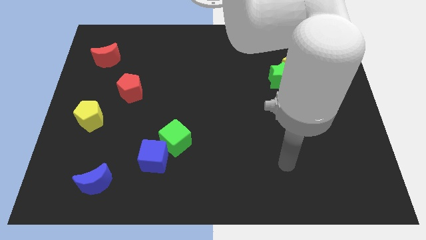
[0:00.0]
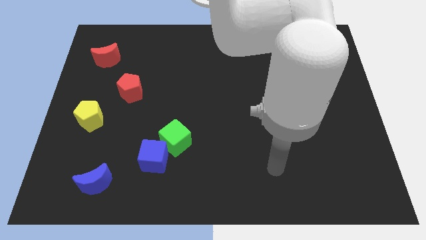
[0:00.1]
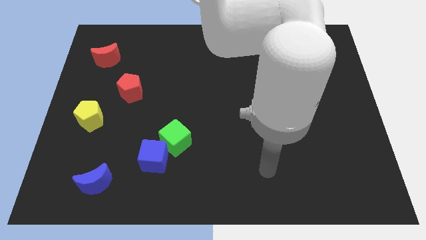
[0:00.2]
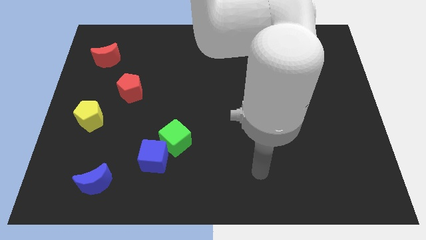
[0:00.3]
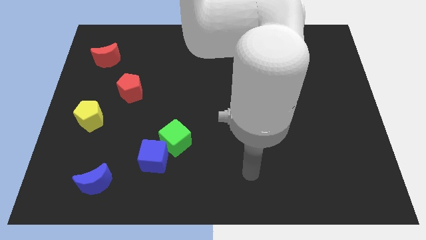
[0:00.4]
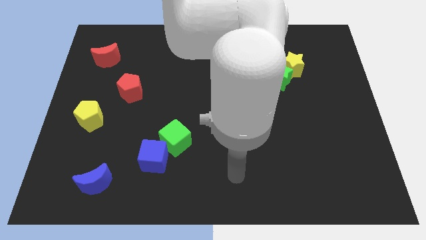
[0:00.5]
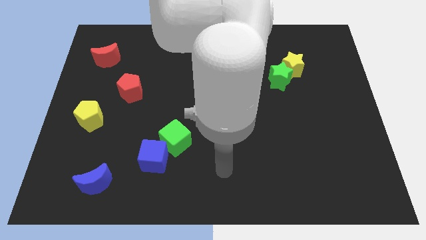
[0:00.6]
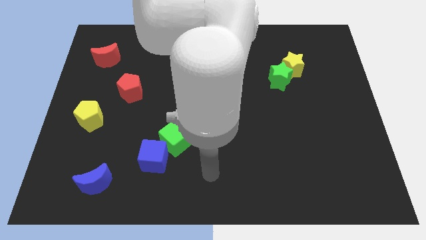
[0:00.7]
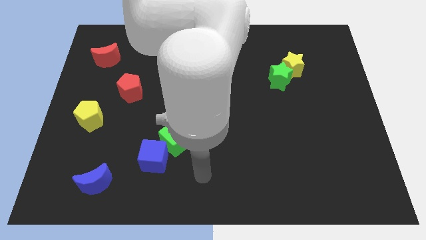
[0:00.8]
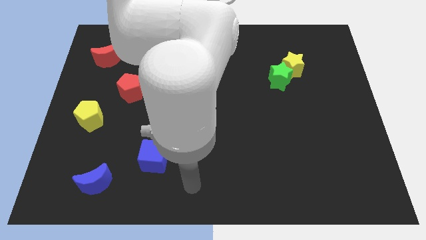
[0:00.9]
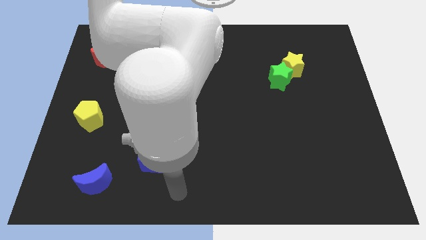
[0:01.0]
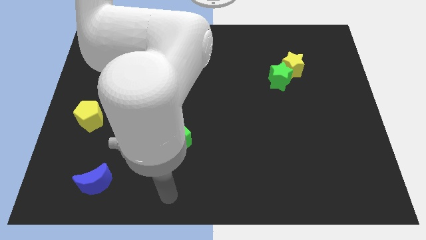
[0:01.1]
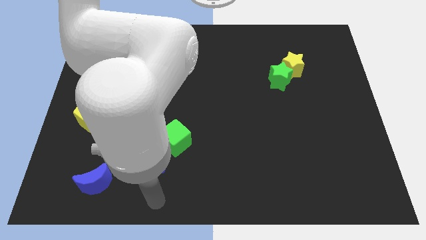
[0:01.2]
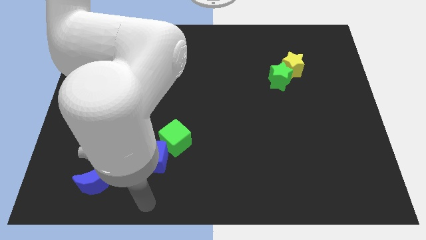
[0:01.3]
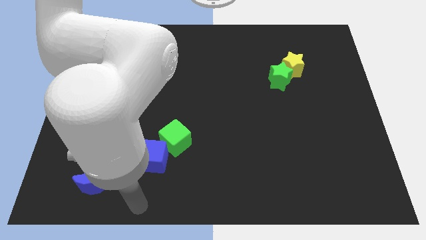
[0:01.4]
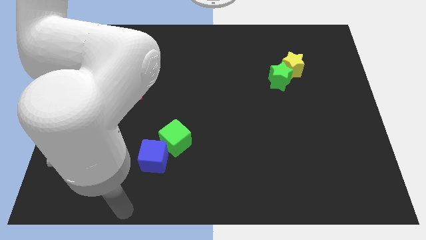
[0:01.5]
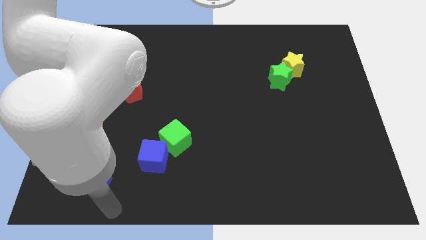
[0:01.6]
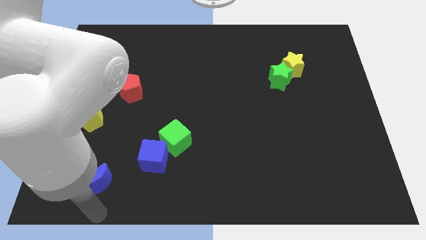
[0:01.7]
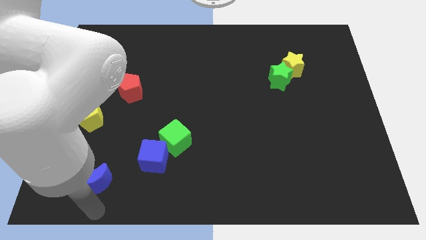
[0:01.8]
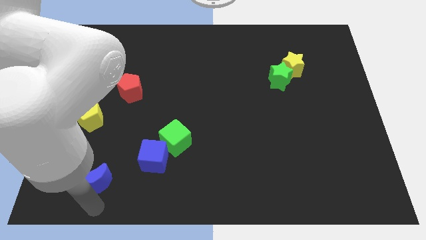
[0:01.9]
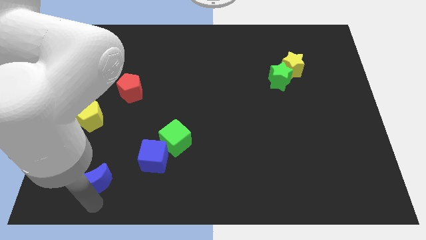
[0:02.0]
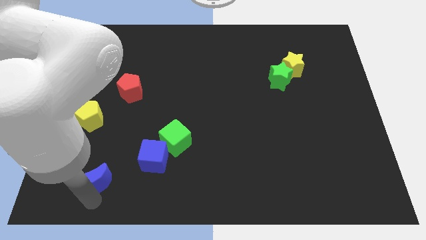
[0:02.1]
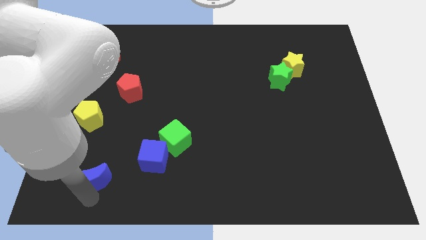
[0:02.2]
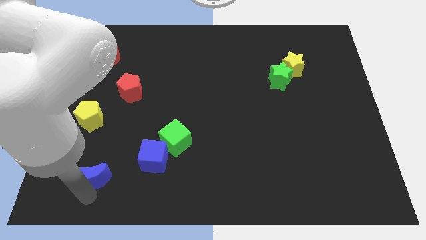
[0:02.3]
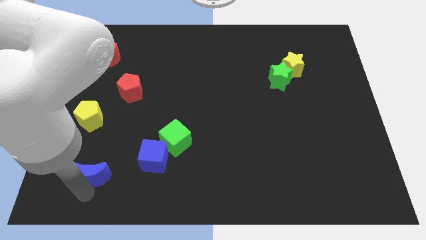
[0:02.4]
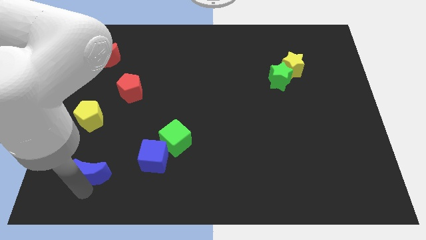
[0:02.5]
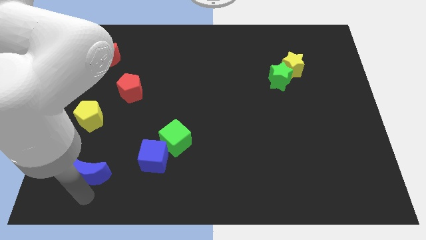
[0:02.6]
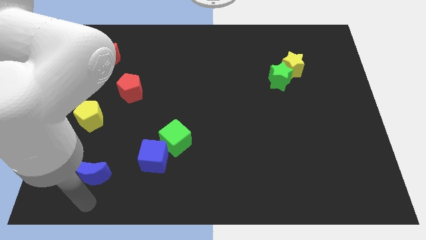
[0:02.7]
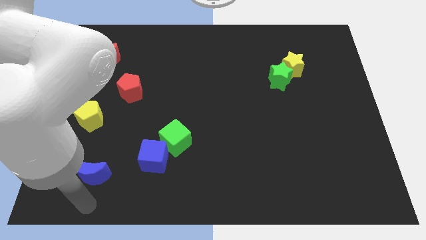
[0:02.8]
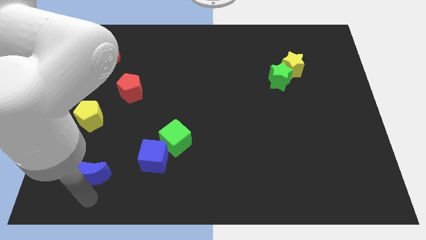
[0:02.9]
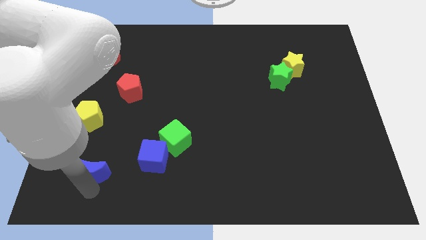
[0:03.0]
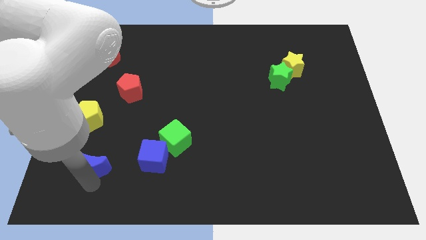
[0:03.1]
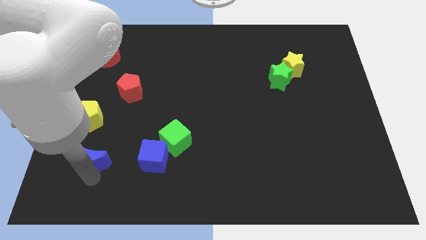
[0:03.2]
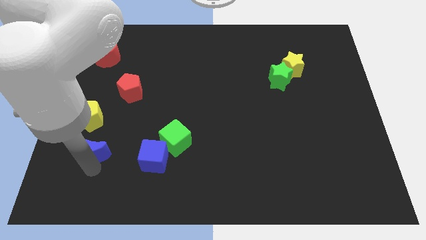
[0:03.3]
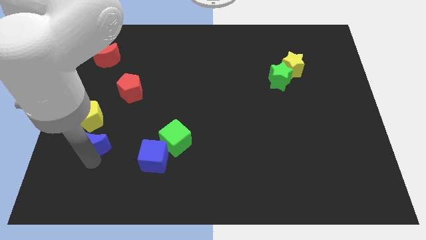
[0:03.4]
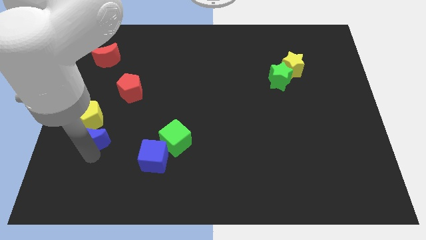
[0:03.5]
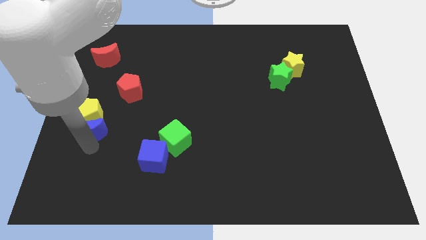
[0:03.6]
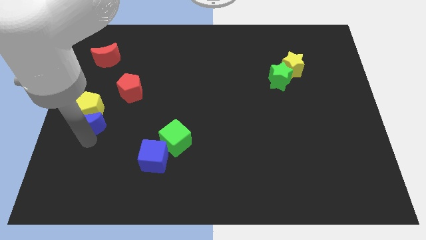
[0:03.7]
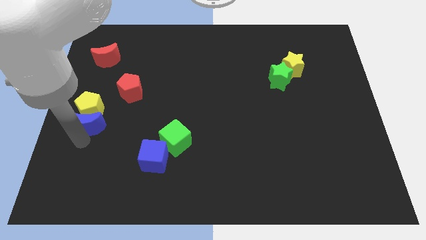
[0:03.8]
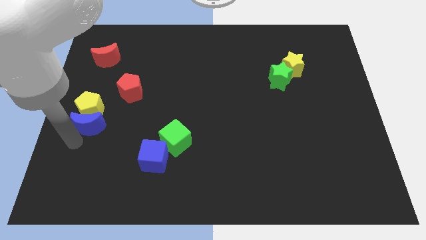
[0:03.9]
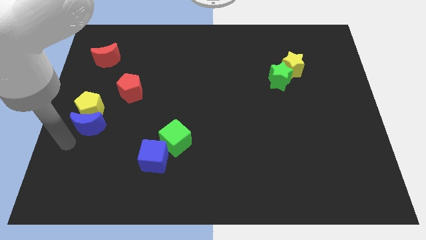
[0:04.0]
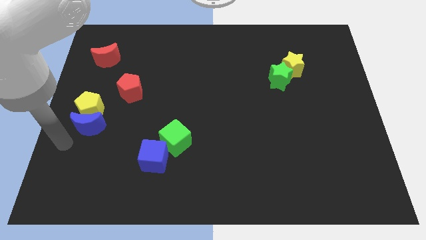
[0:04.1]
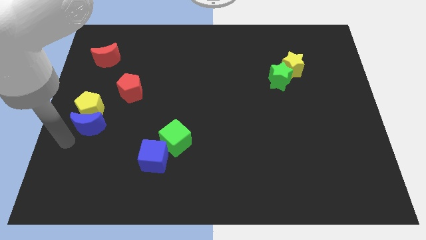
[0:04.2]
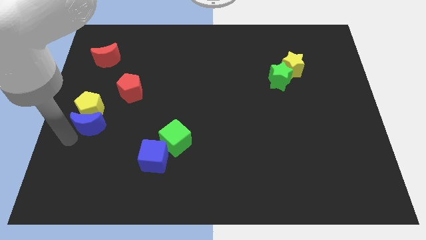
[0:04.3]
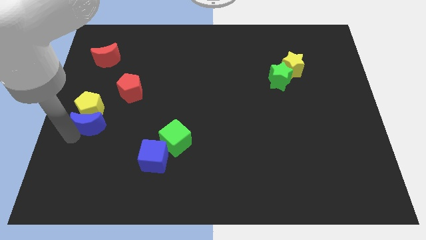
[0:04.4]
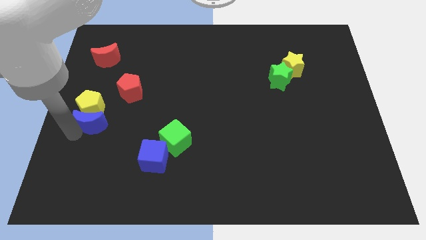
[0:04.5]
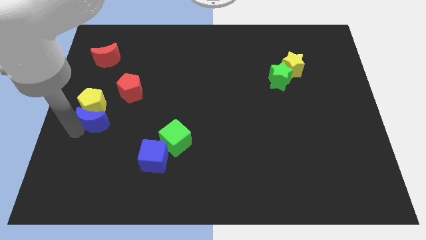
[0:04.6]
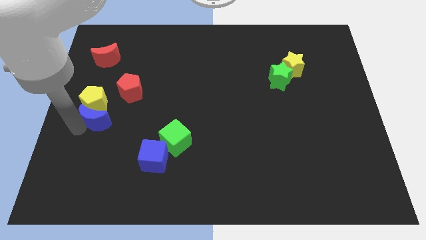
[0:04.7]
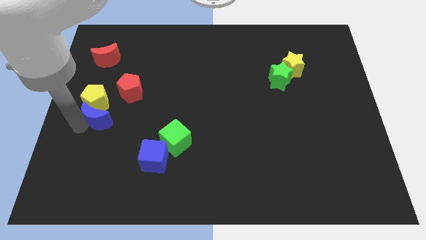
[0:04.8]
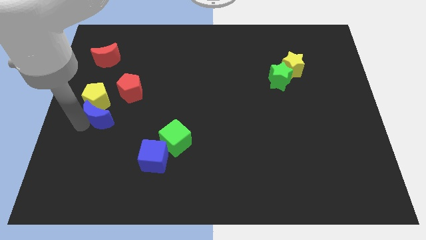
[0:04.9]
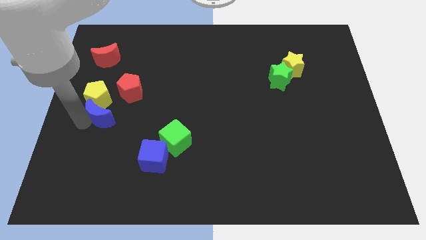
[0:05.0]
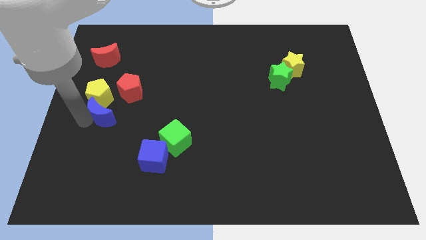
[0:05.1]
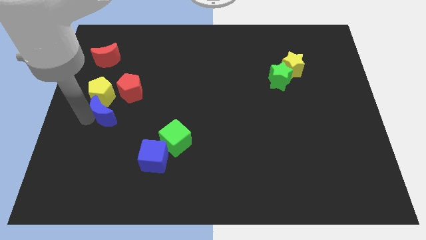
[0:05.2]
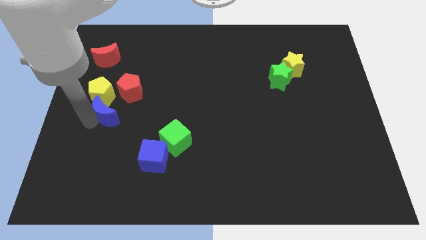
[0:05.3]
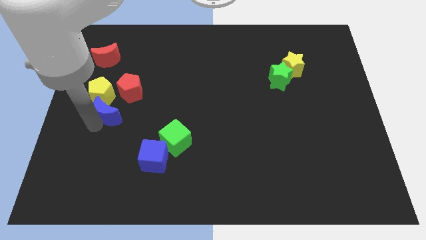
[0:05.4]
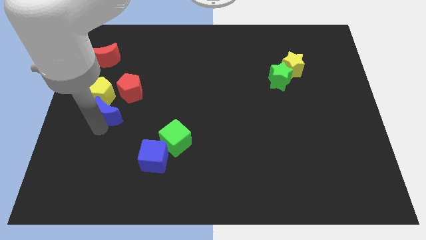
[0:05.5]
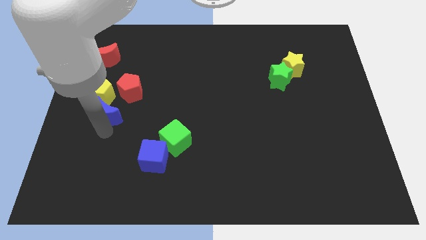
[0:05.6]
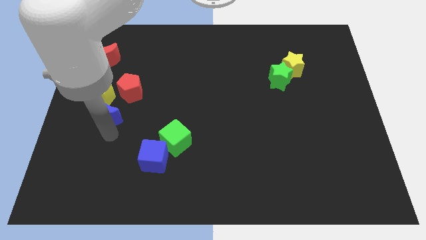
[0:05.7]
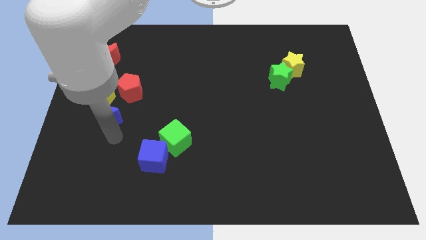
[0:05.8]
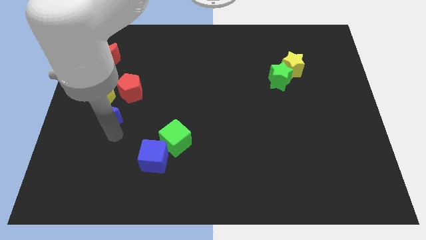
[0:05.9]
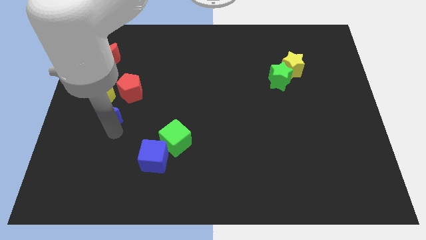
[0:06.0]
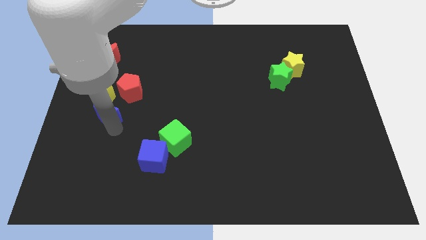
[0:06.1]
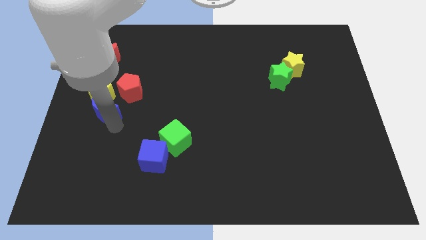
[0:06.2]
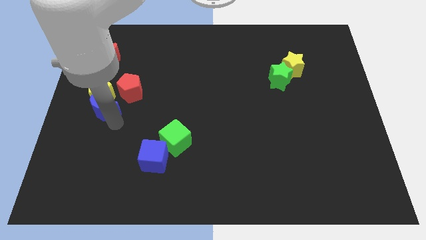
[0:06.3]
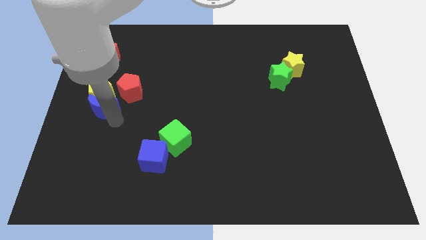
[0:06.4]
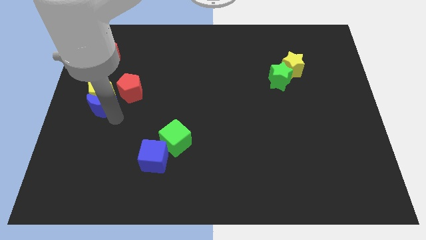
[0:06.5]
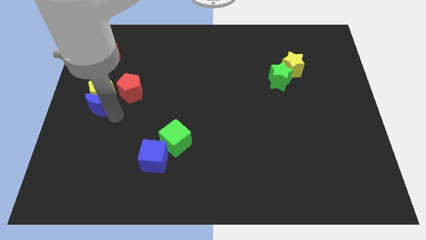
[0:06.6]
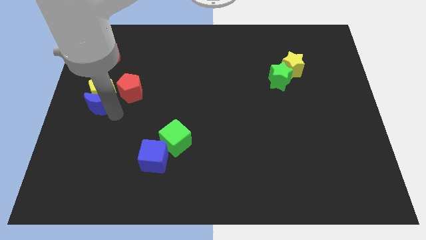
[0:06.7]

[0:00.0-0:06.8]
move the blue moon up

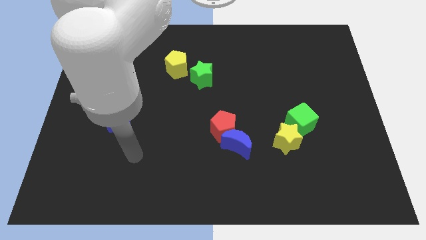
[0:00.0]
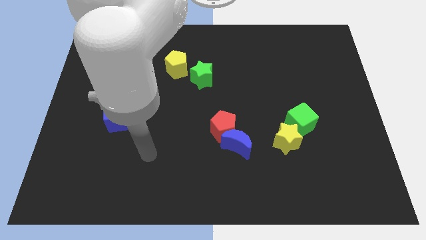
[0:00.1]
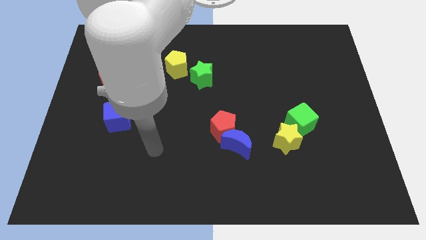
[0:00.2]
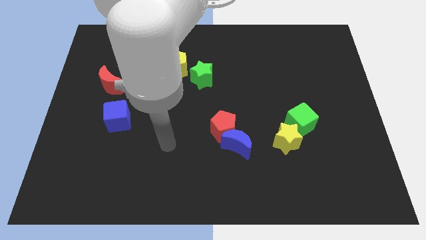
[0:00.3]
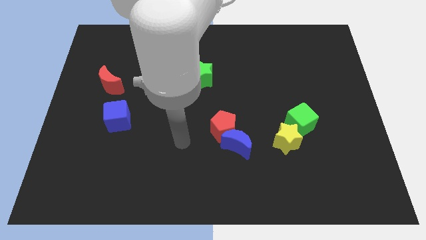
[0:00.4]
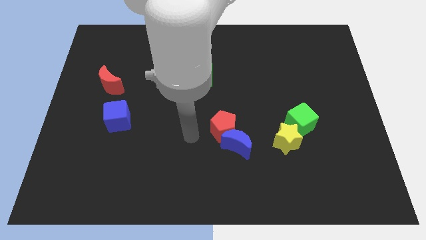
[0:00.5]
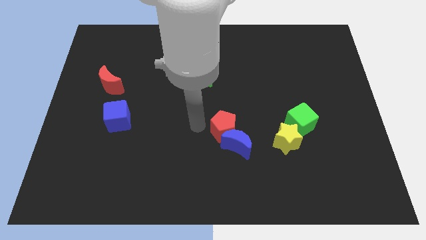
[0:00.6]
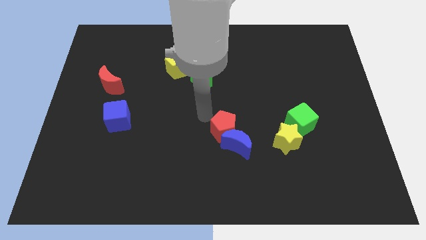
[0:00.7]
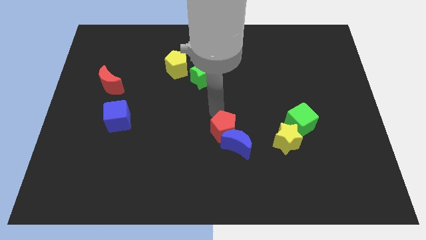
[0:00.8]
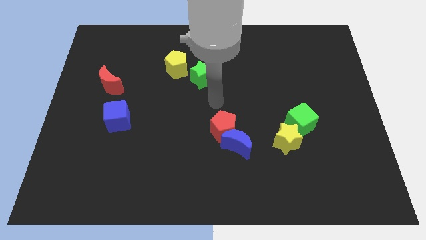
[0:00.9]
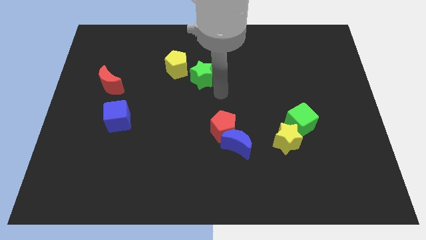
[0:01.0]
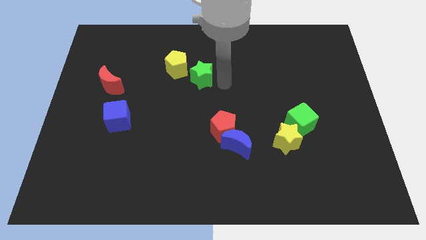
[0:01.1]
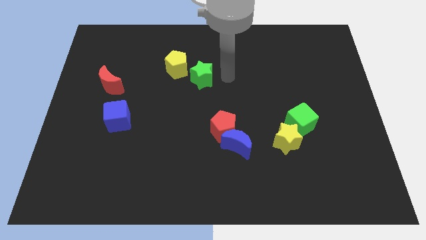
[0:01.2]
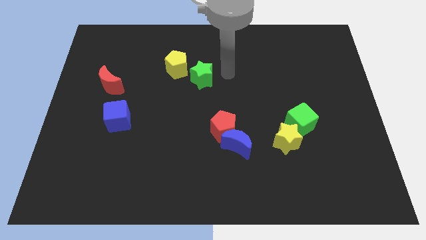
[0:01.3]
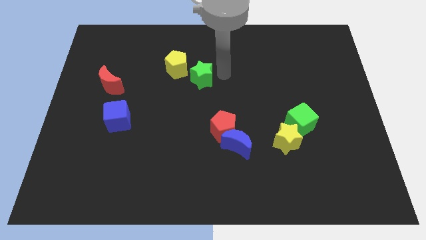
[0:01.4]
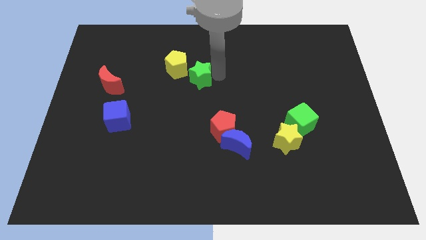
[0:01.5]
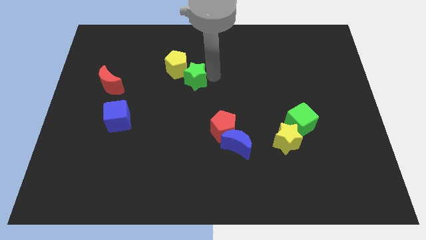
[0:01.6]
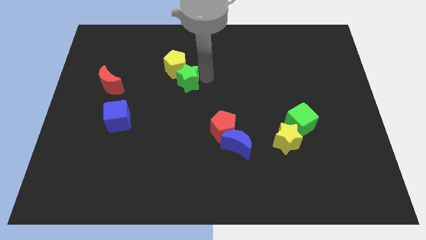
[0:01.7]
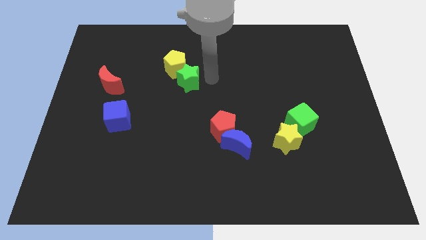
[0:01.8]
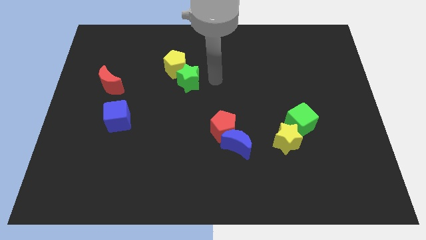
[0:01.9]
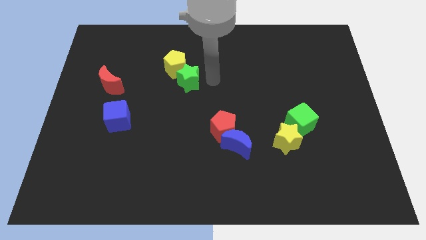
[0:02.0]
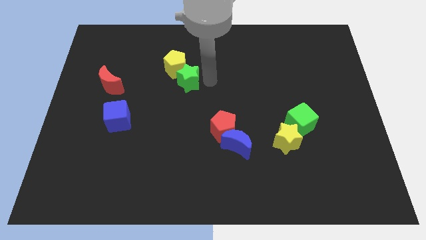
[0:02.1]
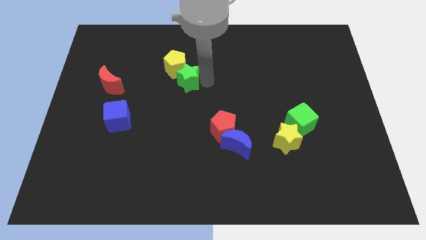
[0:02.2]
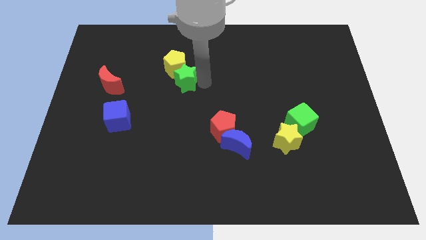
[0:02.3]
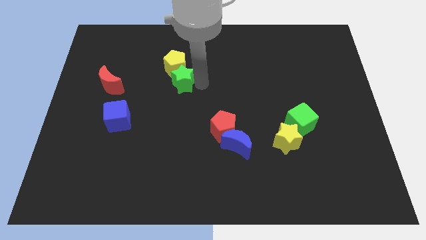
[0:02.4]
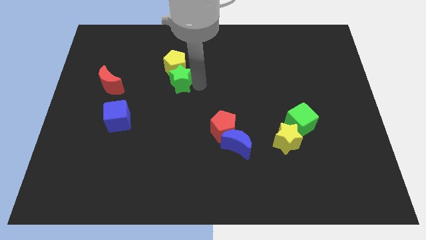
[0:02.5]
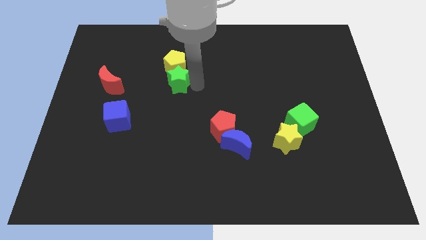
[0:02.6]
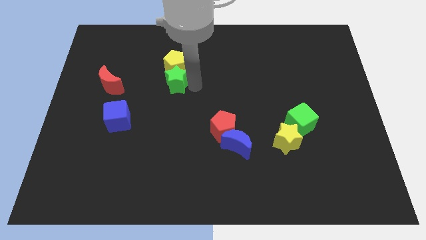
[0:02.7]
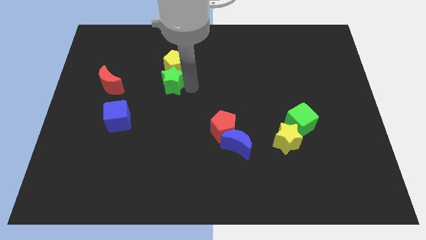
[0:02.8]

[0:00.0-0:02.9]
move the green star slightly left
